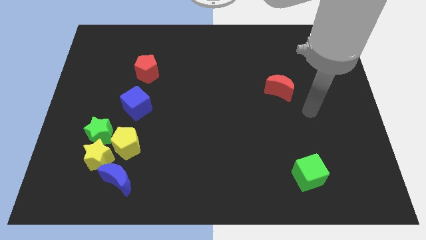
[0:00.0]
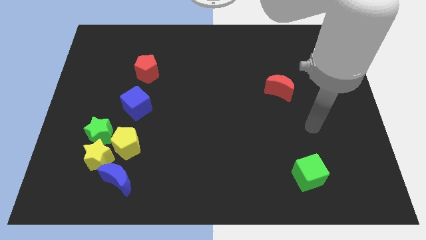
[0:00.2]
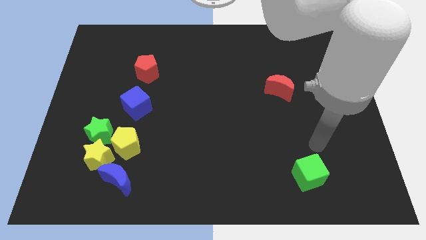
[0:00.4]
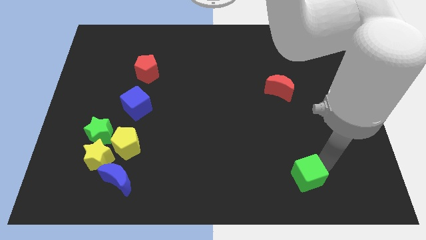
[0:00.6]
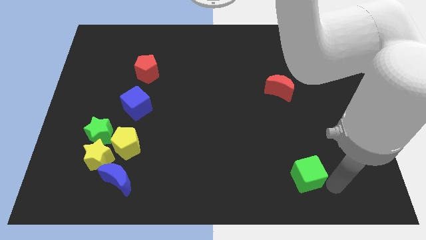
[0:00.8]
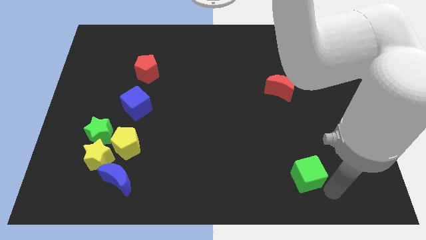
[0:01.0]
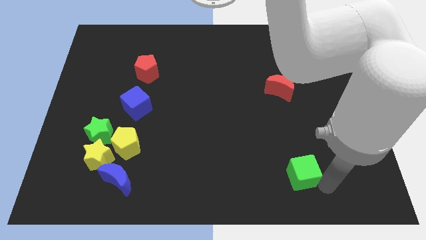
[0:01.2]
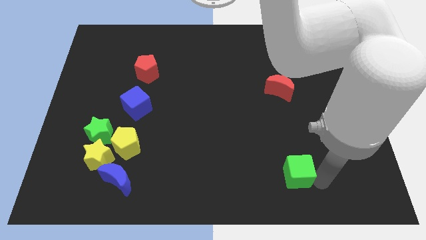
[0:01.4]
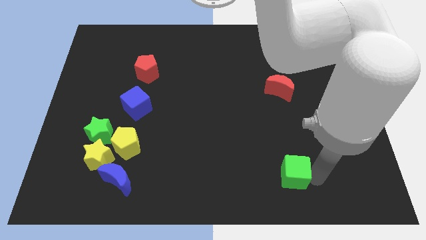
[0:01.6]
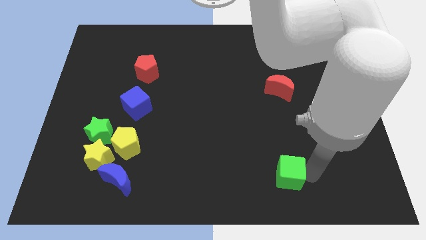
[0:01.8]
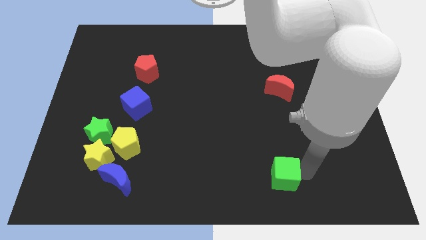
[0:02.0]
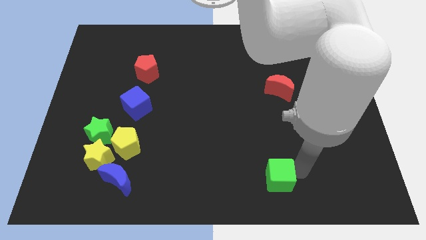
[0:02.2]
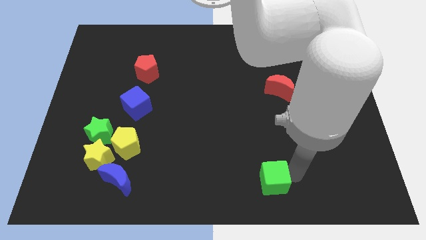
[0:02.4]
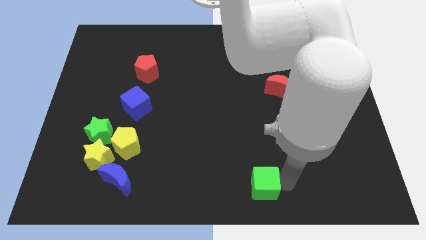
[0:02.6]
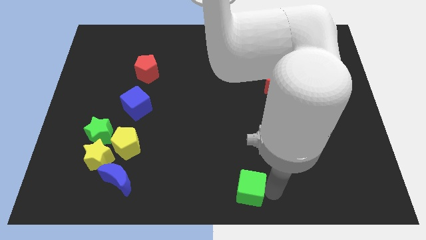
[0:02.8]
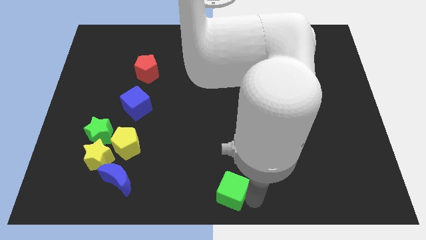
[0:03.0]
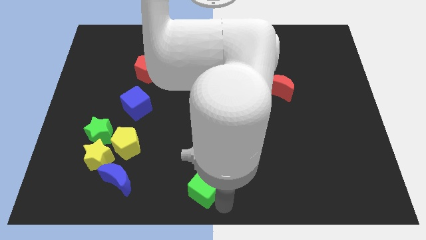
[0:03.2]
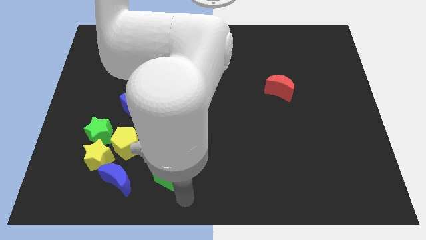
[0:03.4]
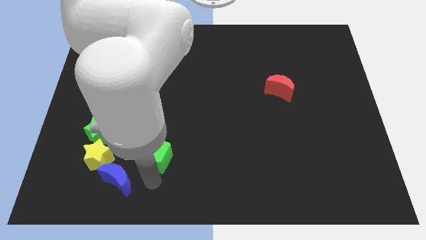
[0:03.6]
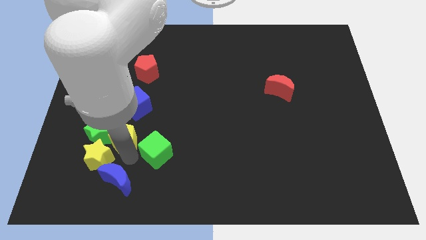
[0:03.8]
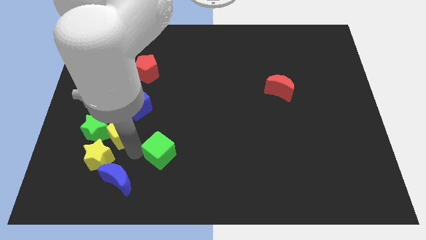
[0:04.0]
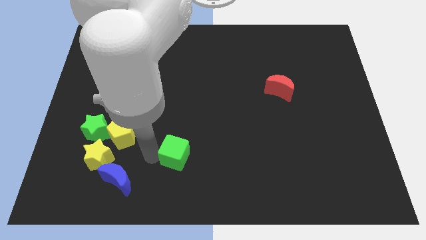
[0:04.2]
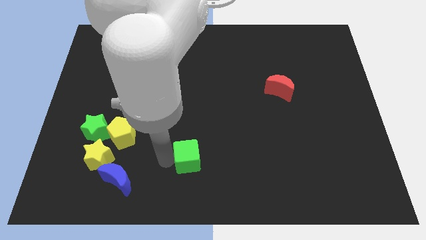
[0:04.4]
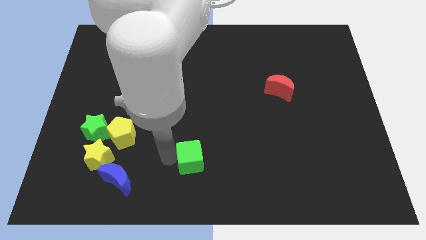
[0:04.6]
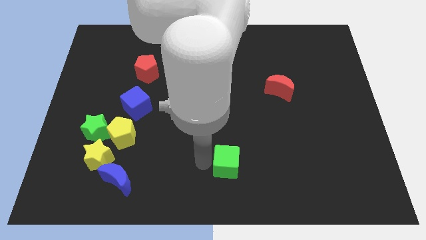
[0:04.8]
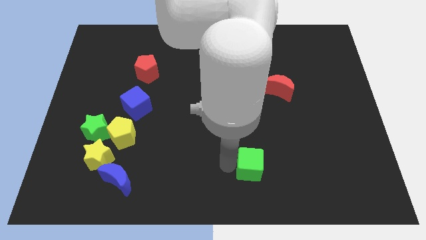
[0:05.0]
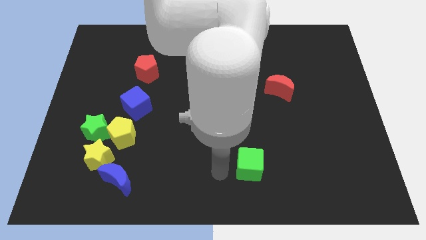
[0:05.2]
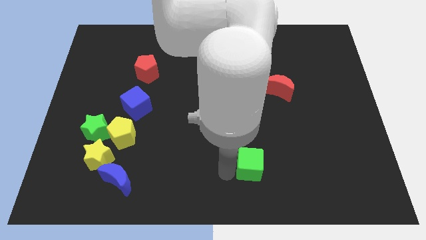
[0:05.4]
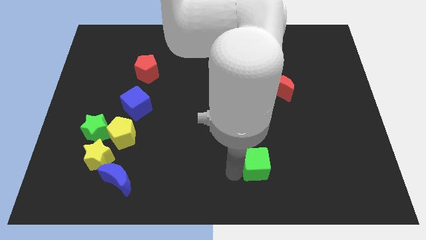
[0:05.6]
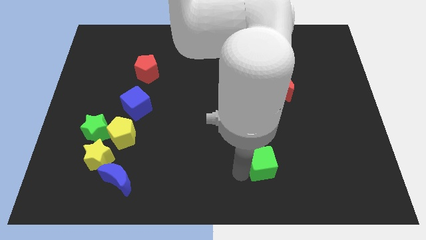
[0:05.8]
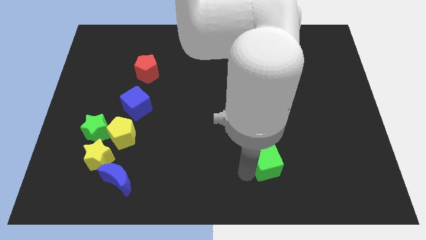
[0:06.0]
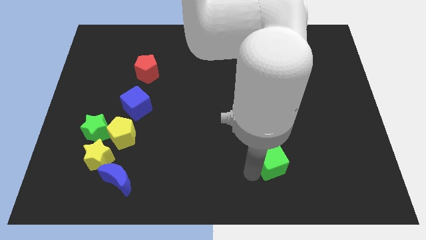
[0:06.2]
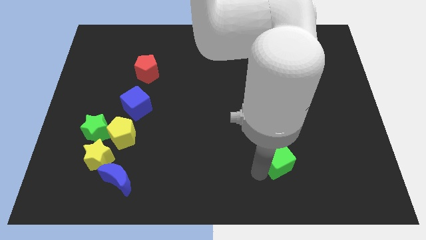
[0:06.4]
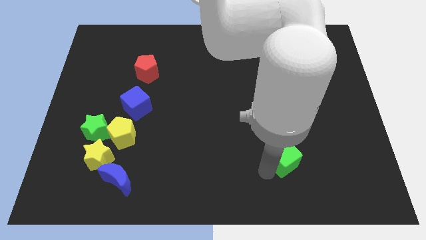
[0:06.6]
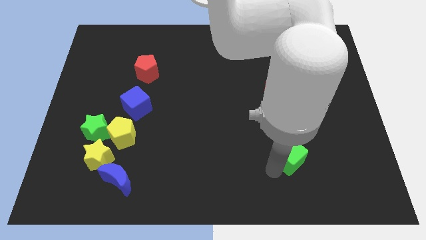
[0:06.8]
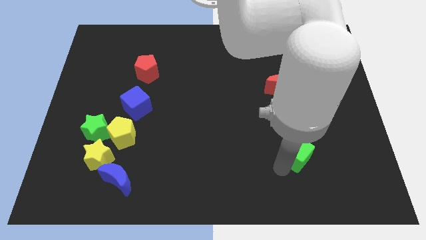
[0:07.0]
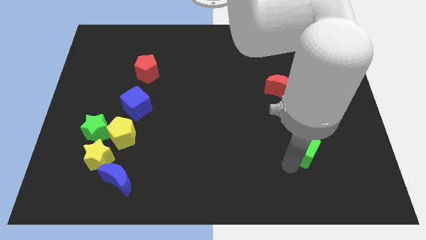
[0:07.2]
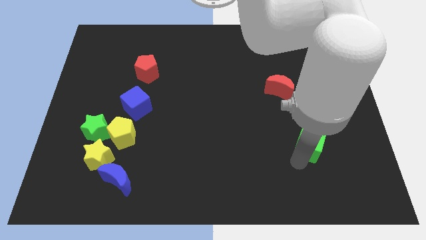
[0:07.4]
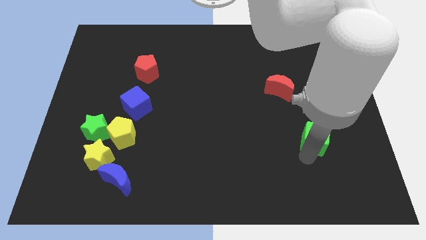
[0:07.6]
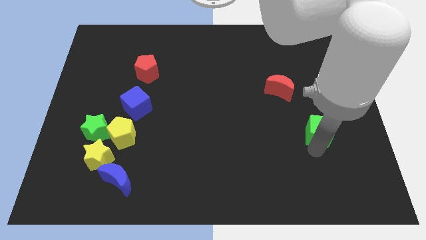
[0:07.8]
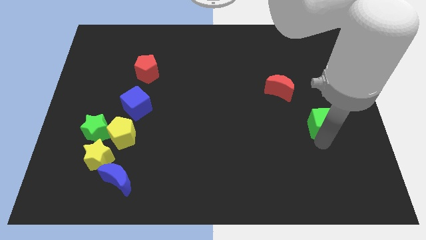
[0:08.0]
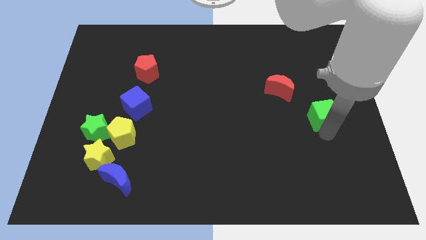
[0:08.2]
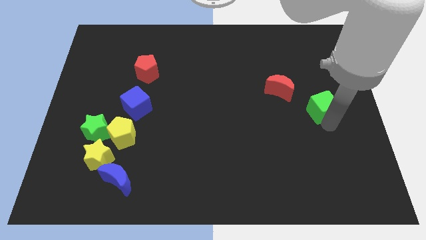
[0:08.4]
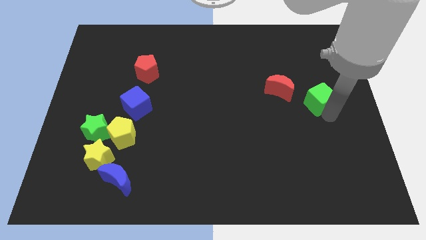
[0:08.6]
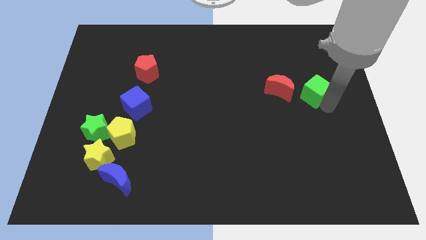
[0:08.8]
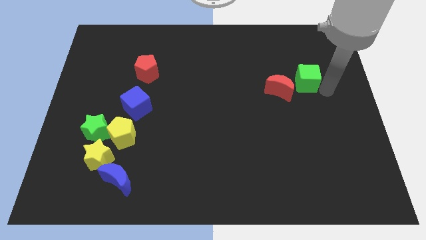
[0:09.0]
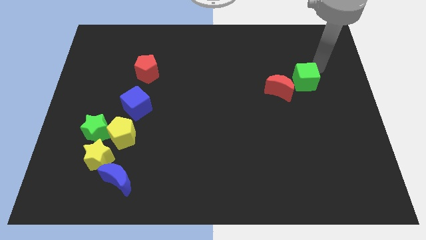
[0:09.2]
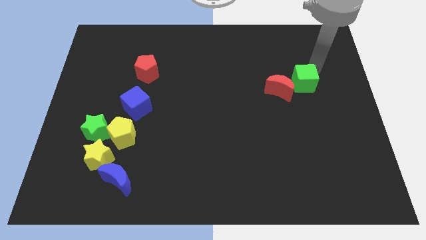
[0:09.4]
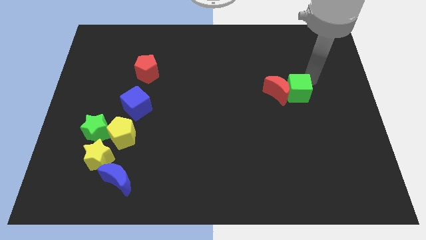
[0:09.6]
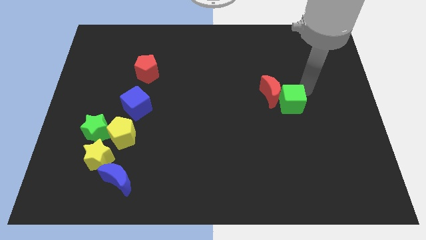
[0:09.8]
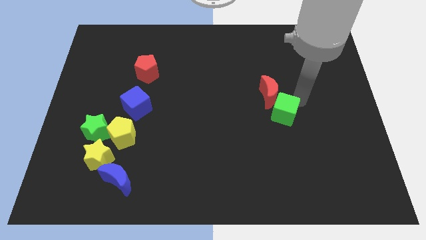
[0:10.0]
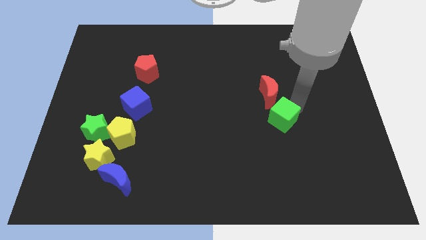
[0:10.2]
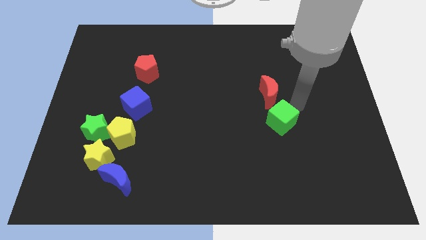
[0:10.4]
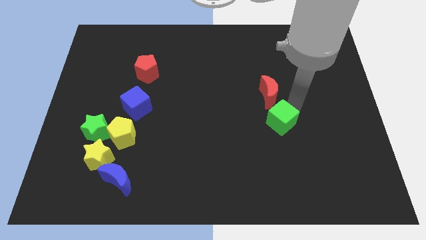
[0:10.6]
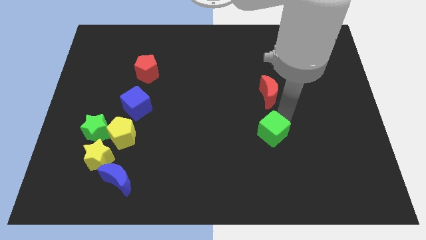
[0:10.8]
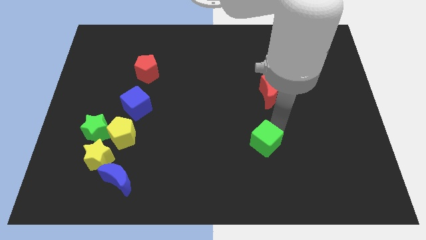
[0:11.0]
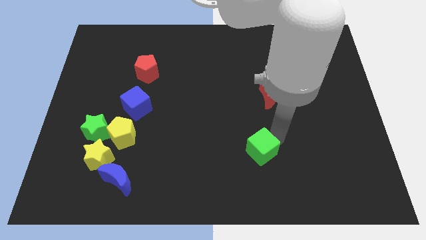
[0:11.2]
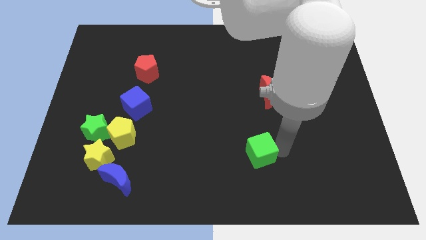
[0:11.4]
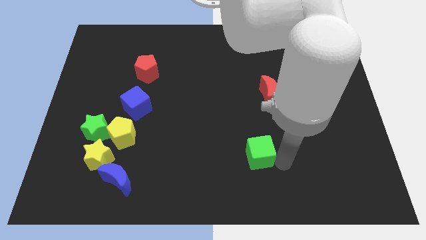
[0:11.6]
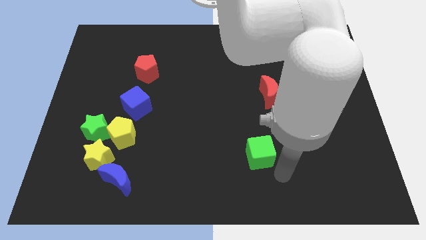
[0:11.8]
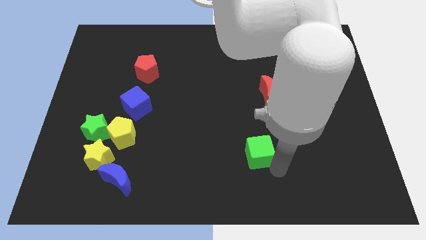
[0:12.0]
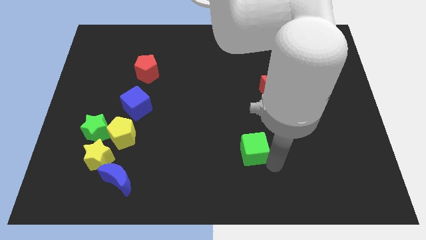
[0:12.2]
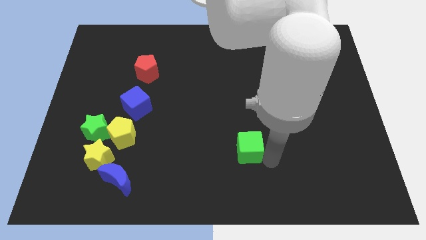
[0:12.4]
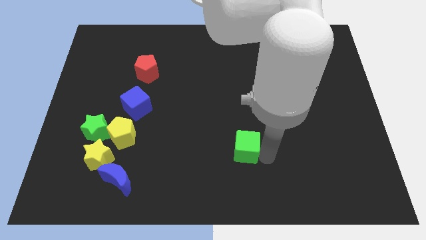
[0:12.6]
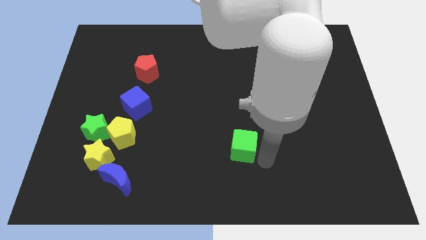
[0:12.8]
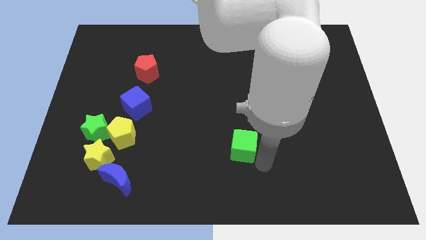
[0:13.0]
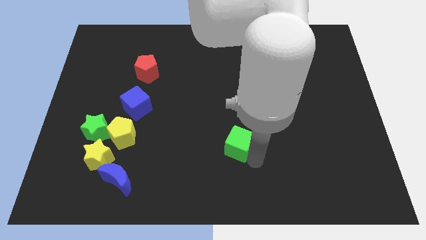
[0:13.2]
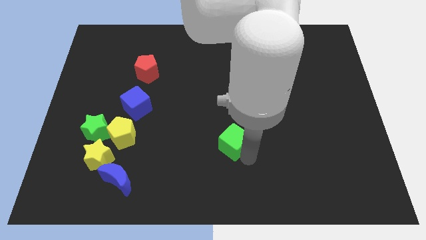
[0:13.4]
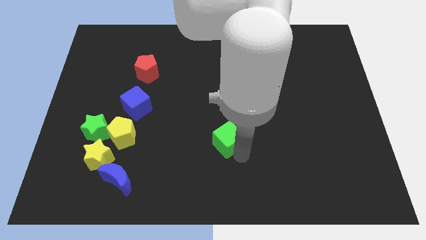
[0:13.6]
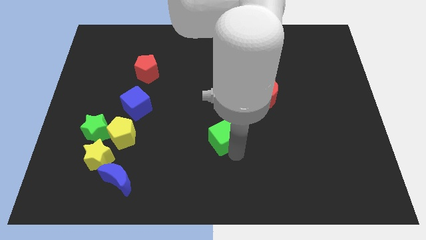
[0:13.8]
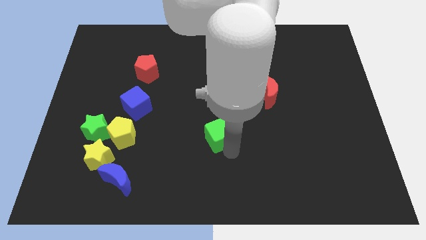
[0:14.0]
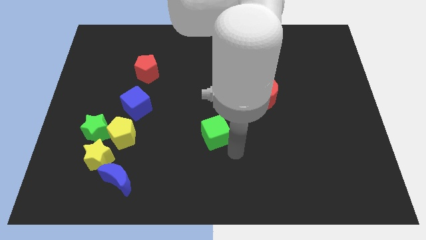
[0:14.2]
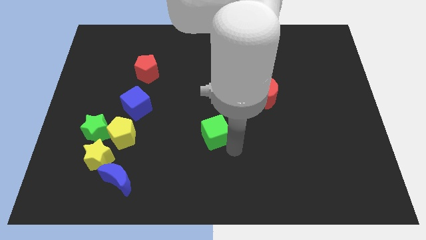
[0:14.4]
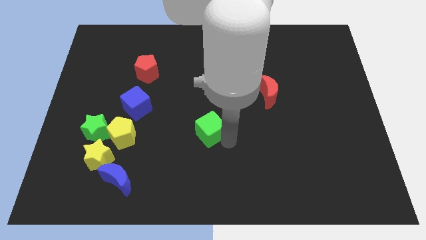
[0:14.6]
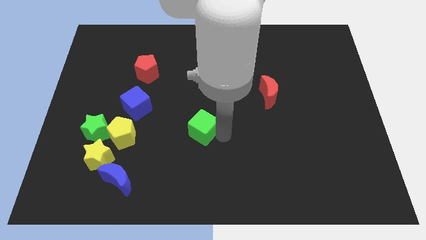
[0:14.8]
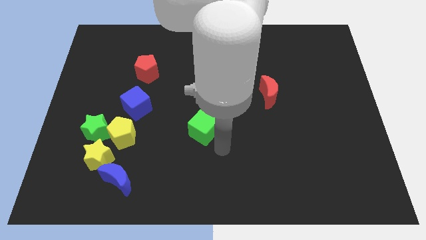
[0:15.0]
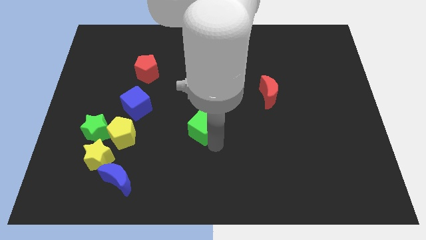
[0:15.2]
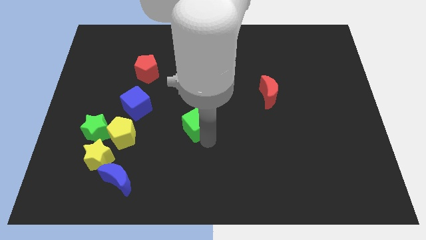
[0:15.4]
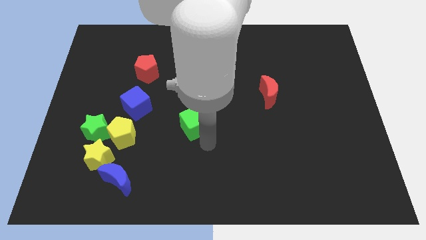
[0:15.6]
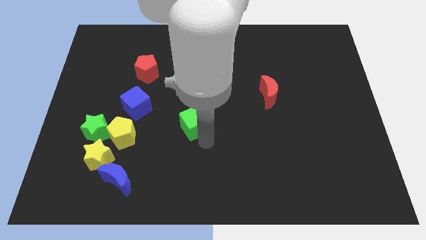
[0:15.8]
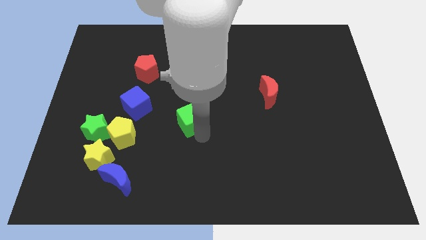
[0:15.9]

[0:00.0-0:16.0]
put the green cube to the right of the blue cube
